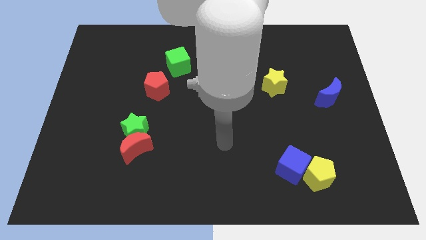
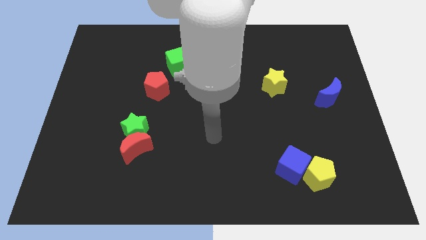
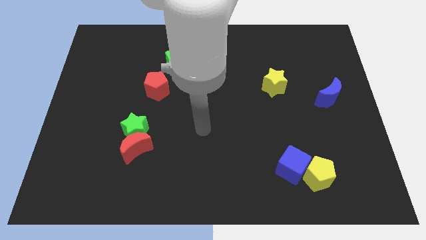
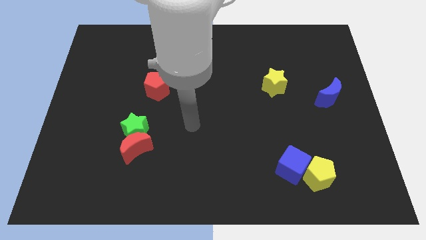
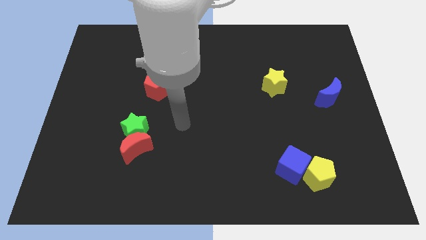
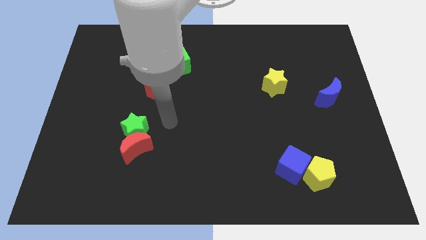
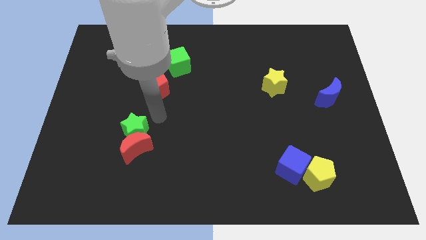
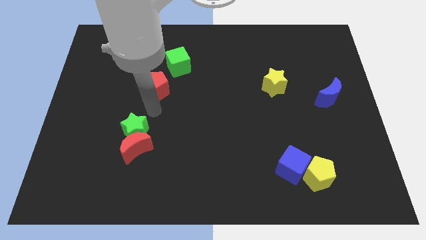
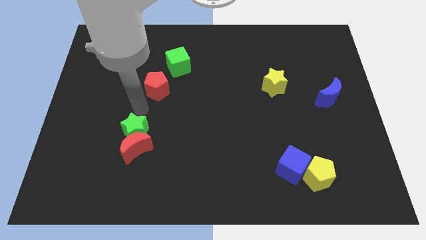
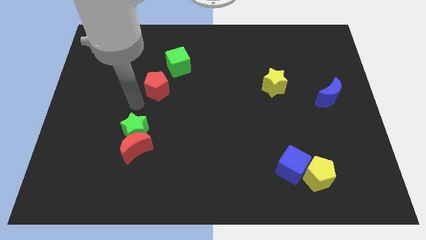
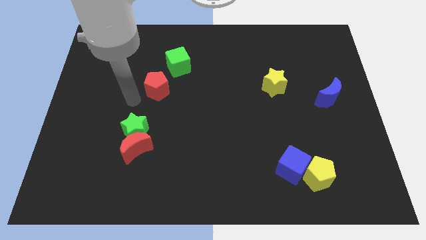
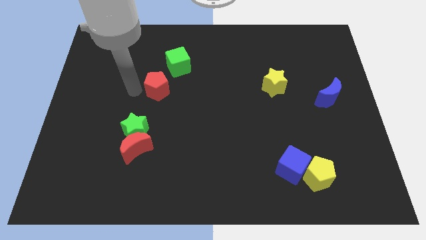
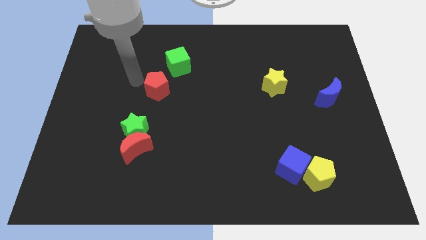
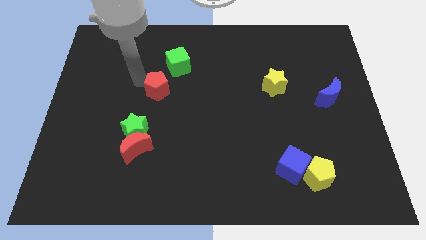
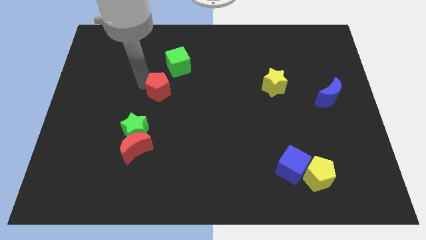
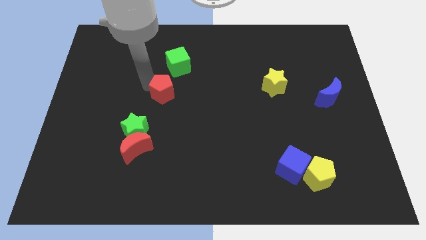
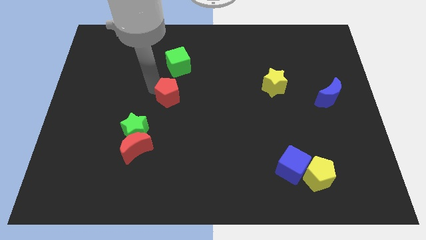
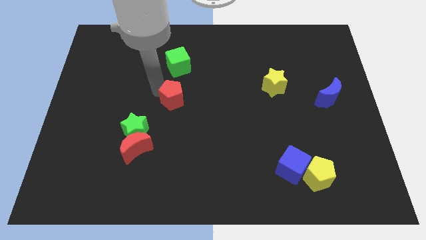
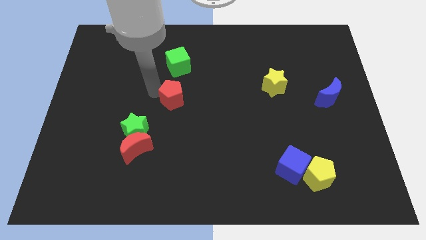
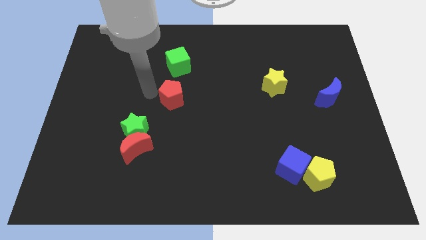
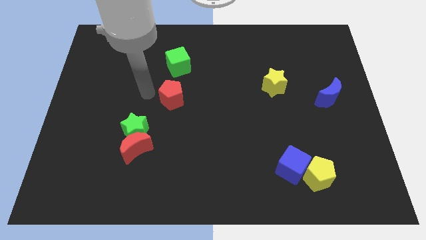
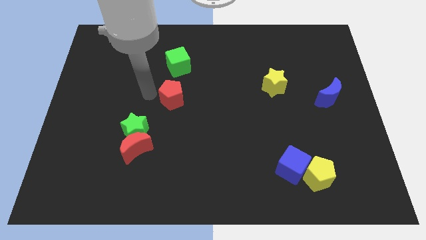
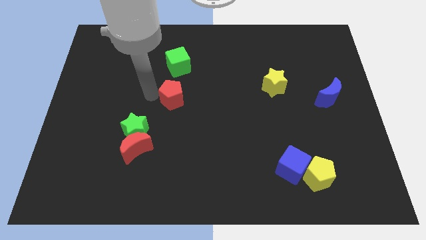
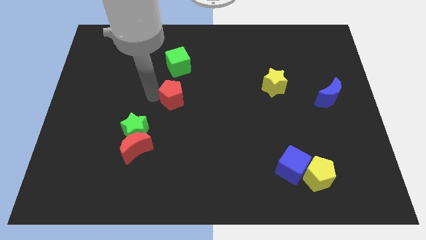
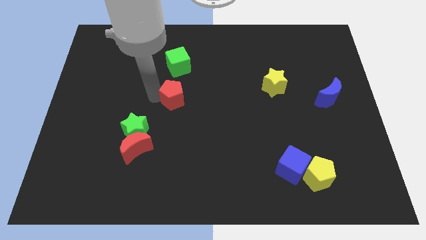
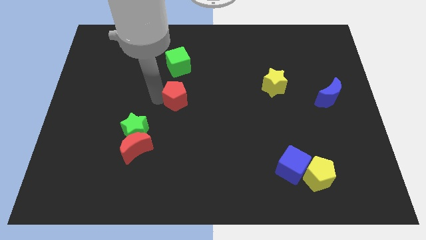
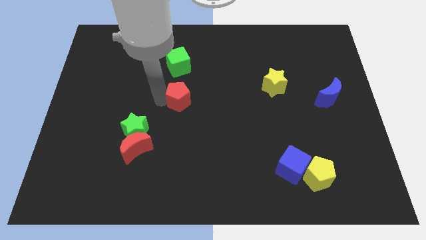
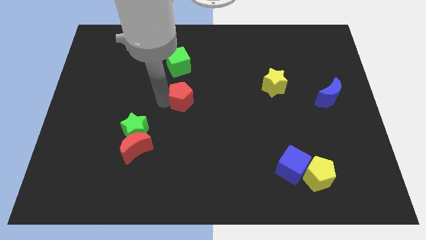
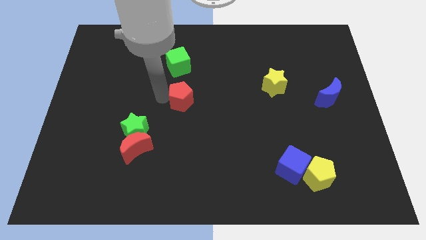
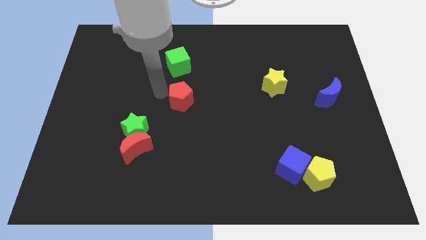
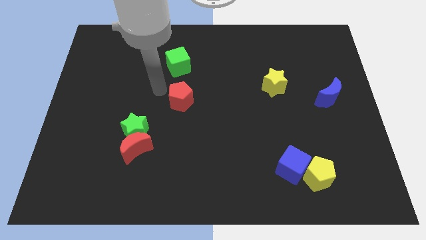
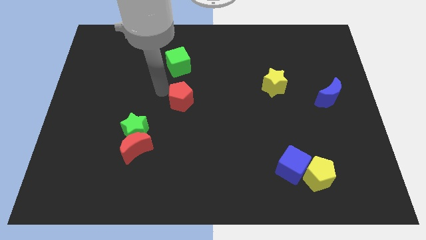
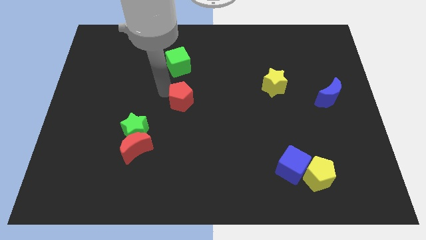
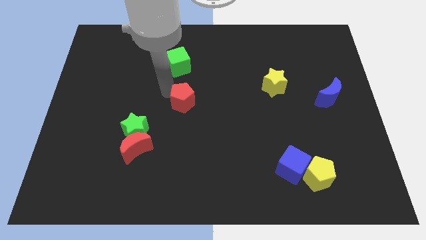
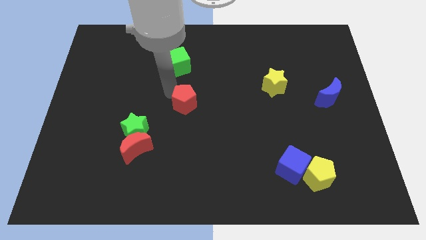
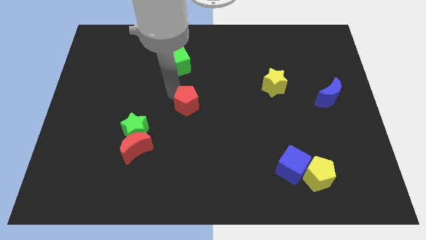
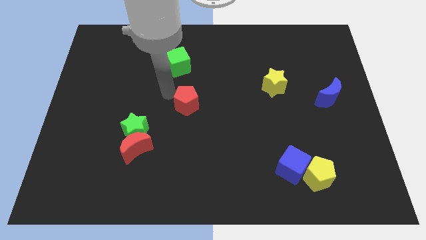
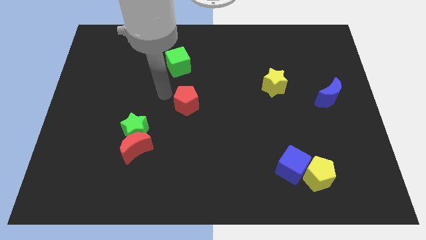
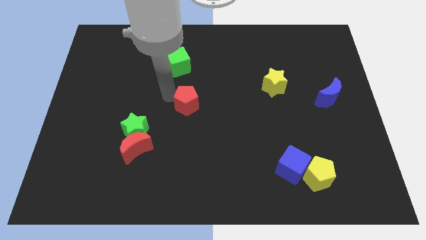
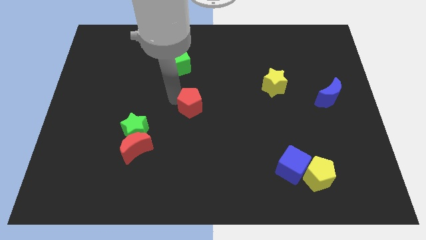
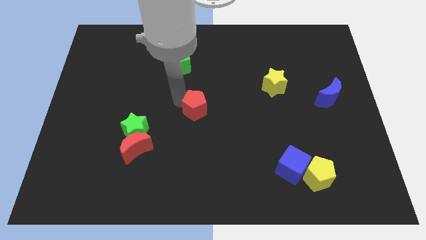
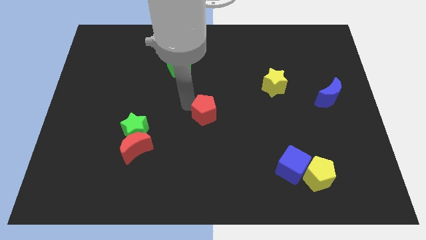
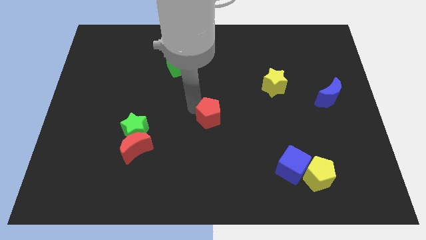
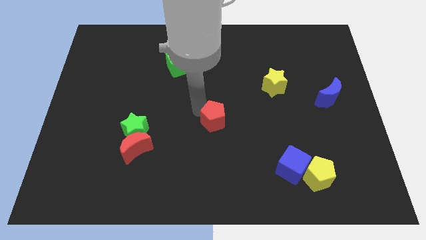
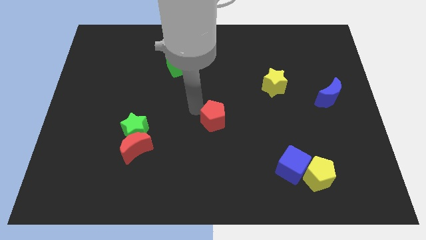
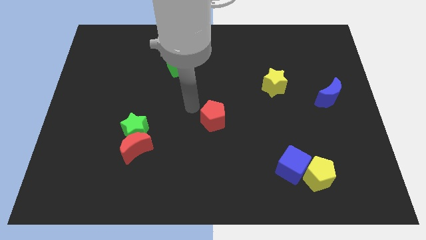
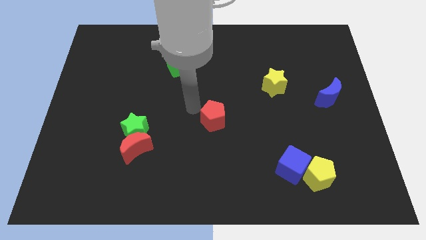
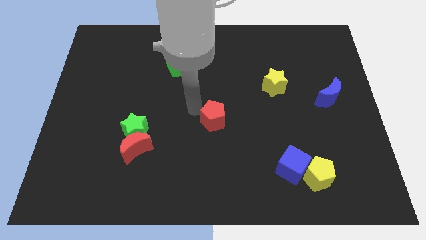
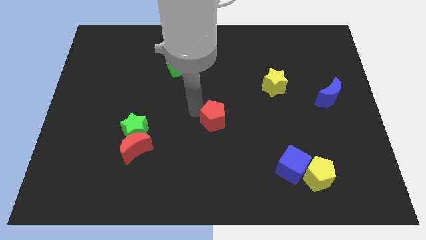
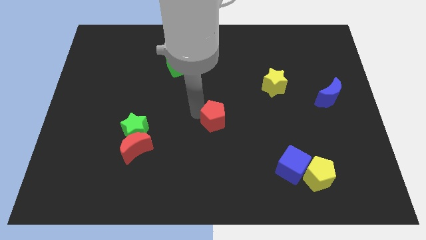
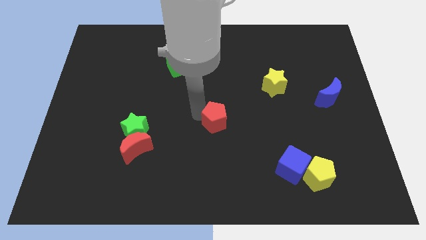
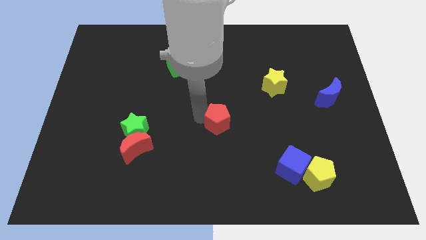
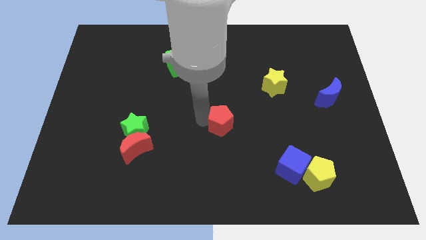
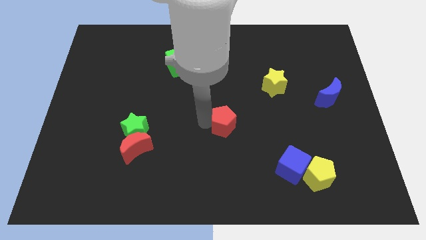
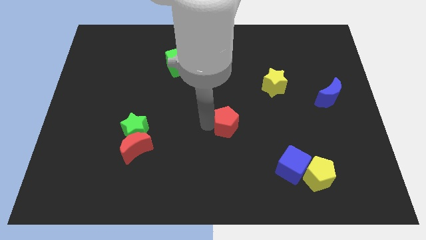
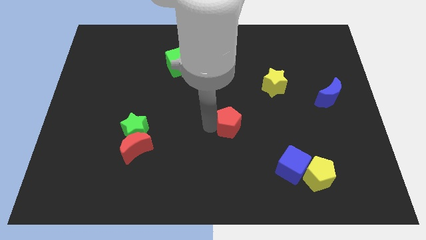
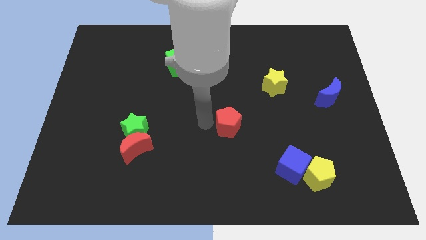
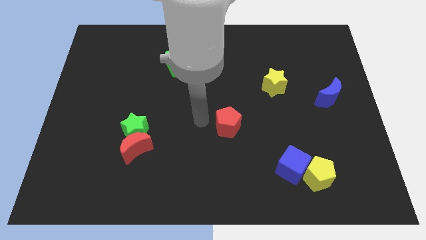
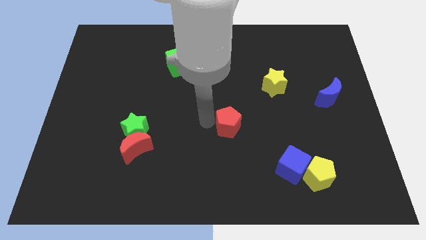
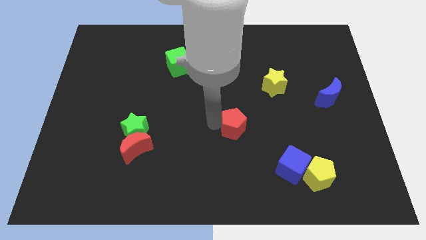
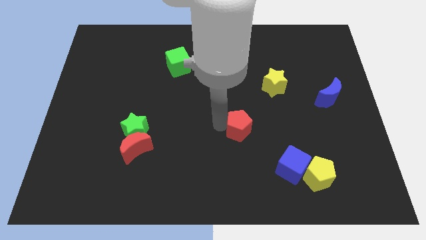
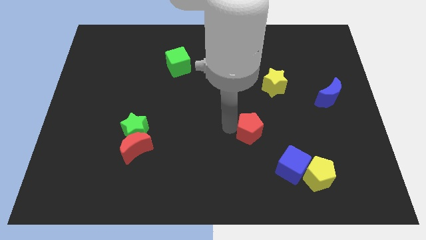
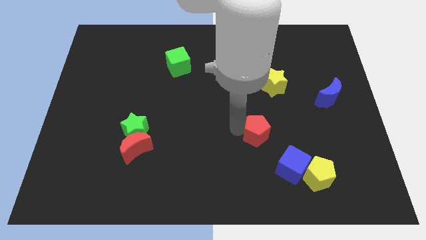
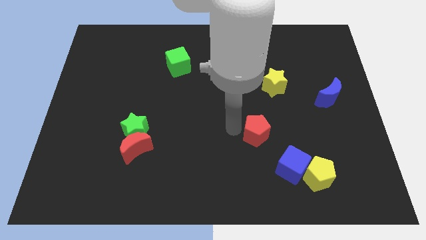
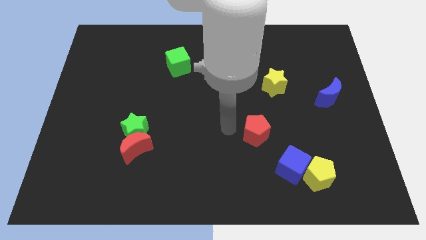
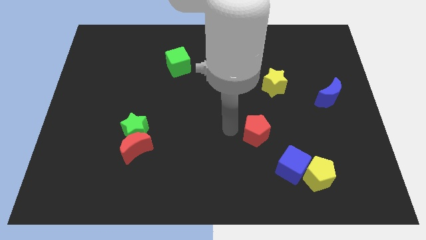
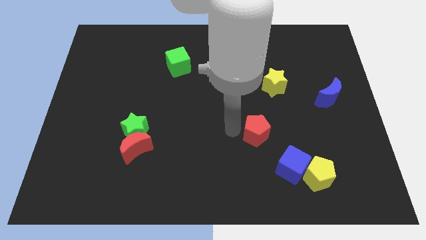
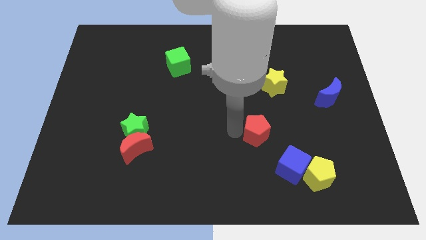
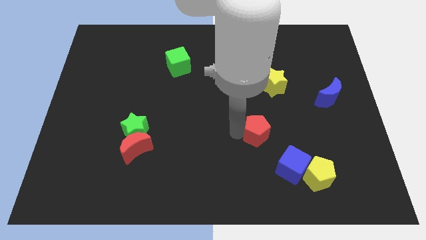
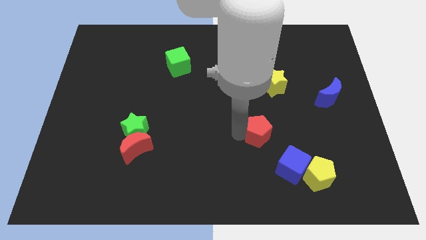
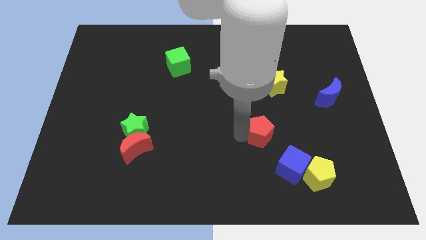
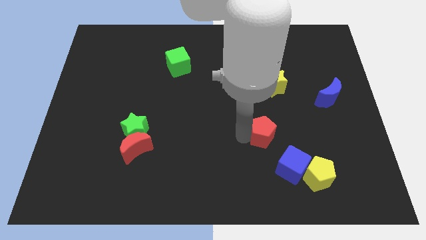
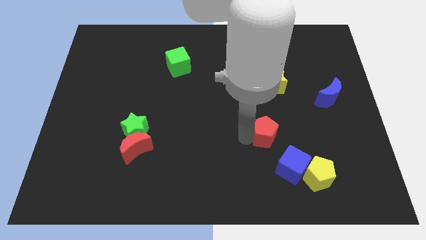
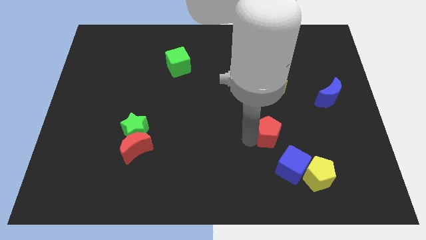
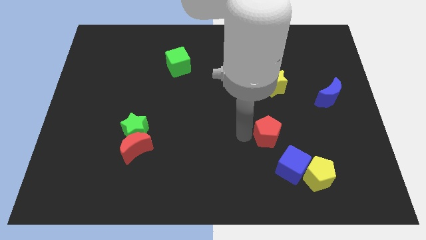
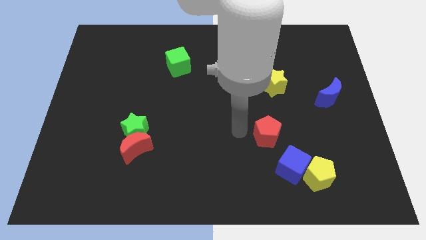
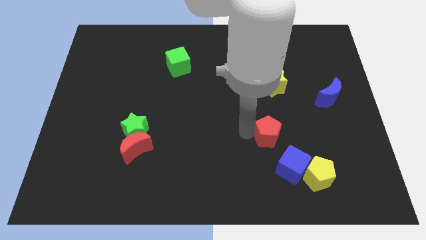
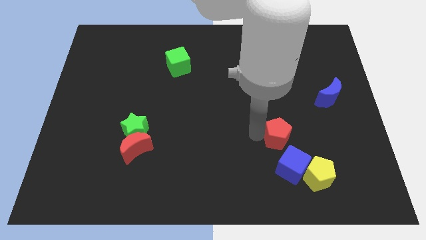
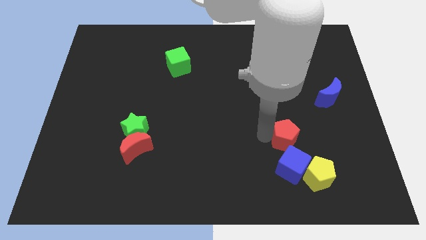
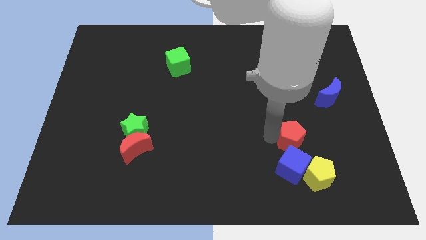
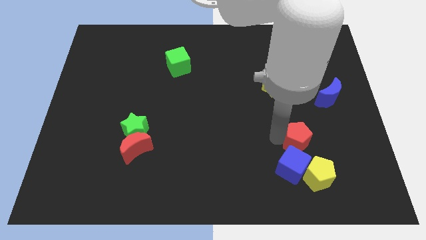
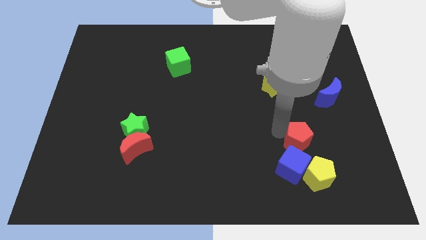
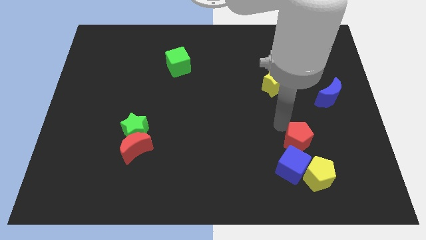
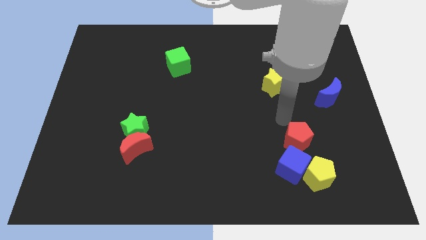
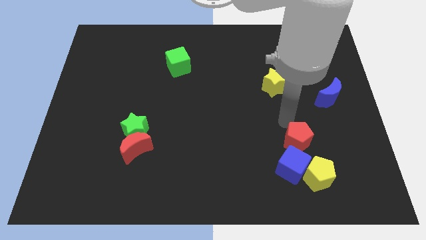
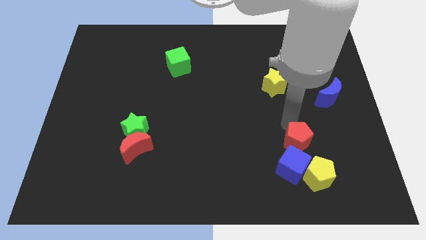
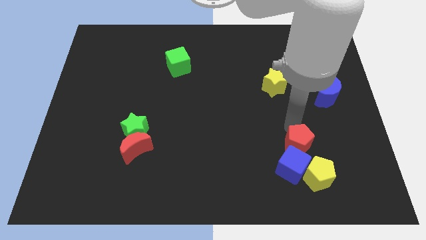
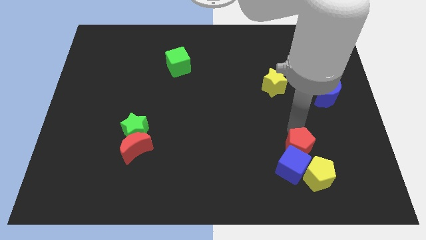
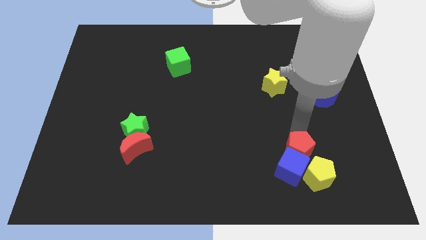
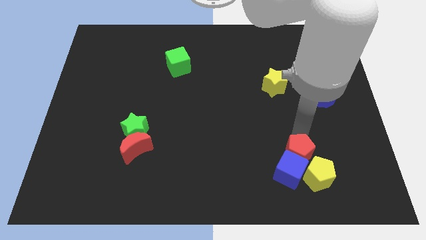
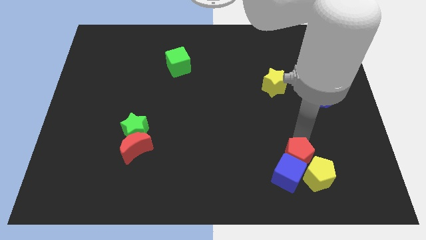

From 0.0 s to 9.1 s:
move the red pentagon close to the yellow pentagon
